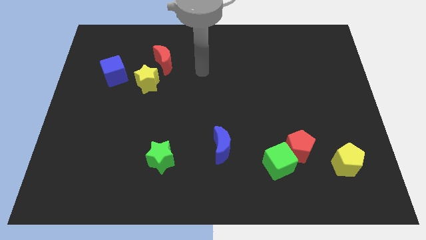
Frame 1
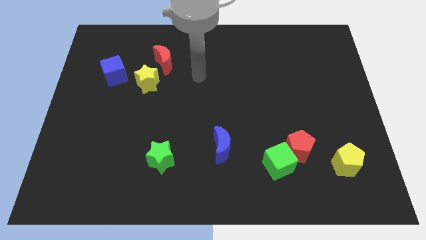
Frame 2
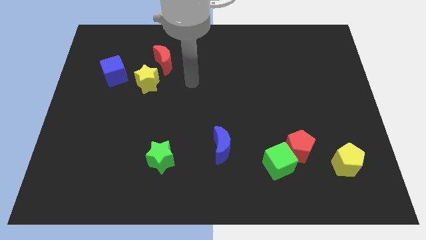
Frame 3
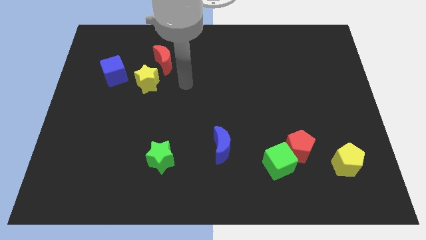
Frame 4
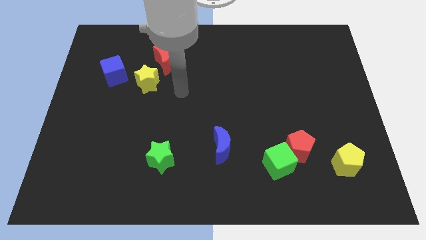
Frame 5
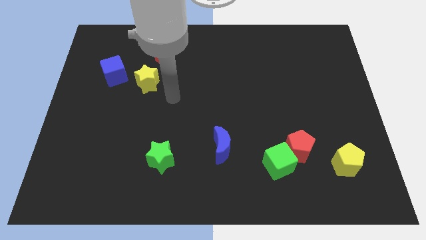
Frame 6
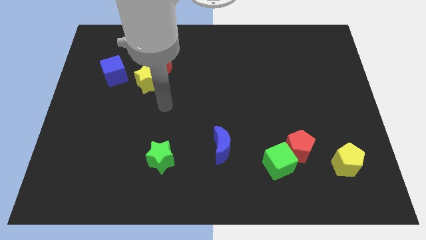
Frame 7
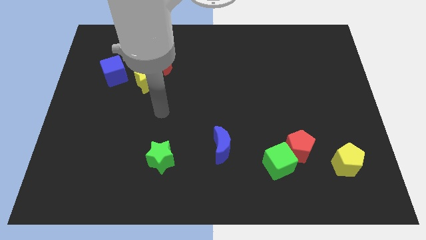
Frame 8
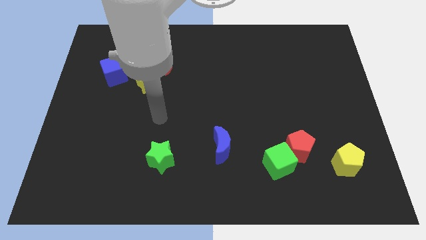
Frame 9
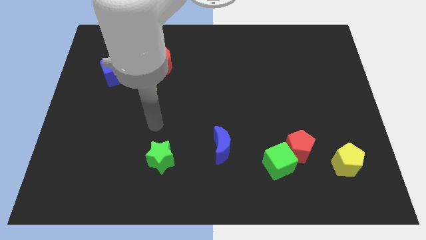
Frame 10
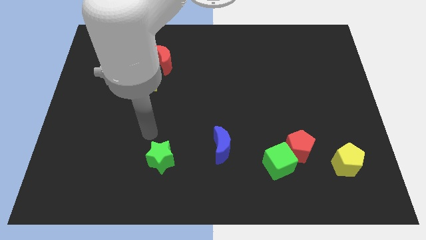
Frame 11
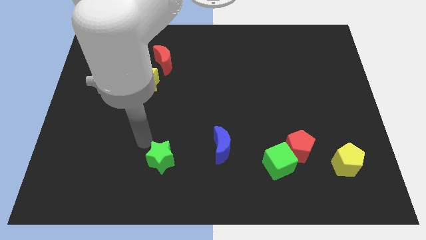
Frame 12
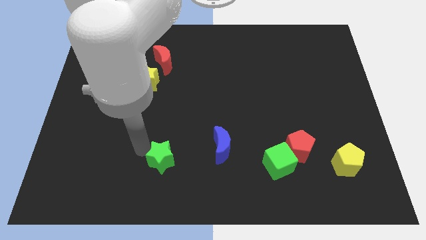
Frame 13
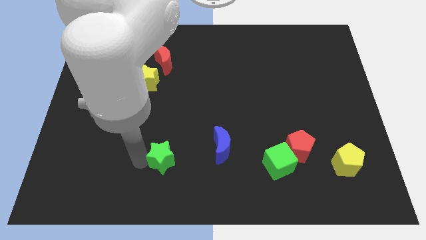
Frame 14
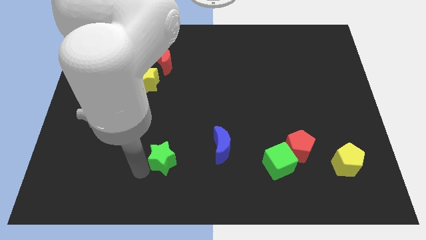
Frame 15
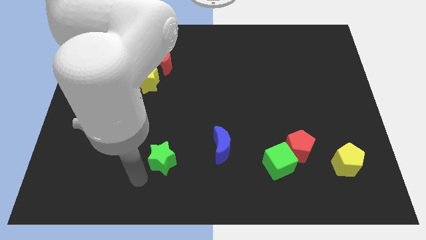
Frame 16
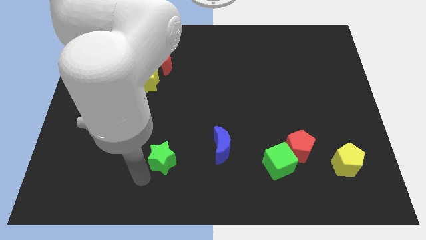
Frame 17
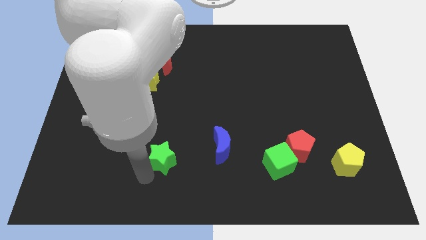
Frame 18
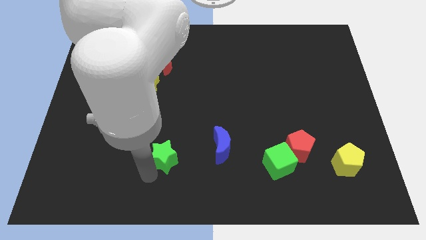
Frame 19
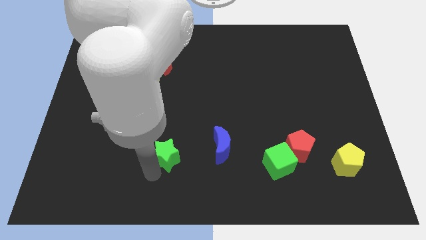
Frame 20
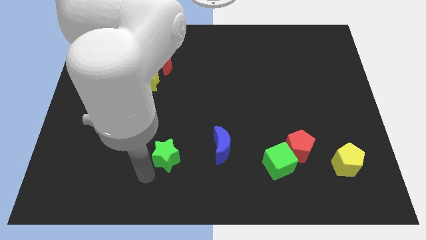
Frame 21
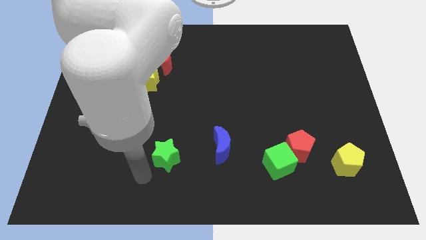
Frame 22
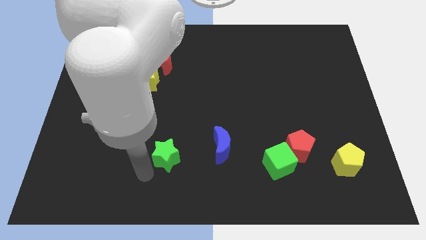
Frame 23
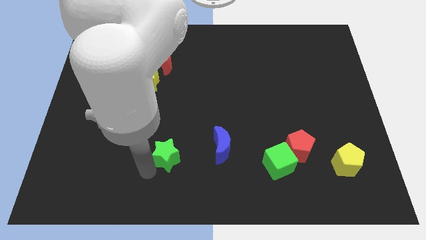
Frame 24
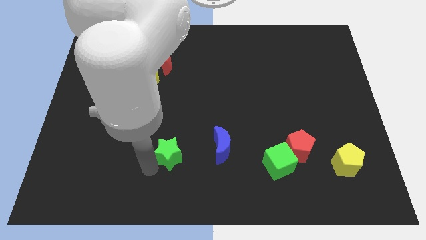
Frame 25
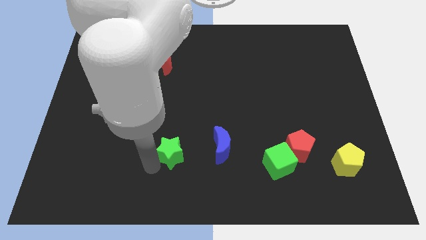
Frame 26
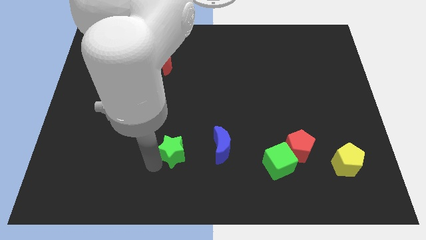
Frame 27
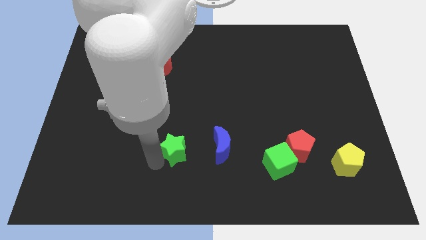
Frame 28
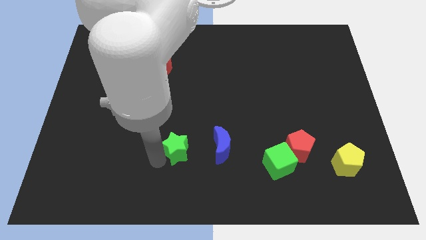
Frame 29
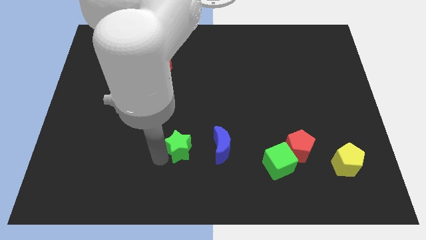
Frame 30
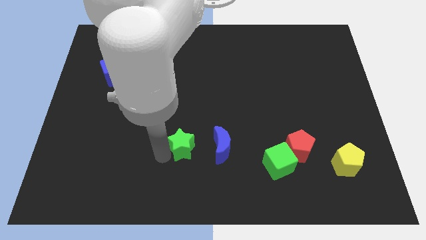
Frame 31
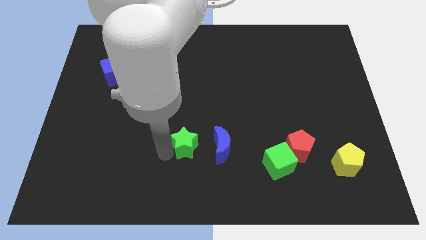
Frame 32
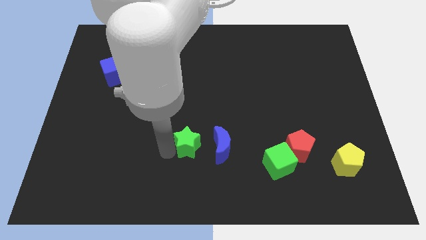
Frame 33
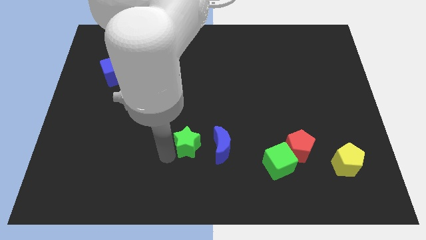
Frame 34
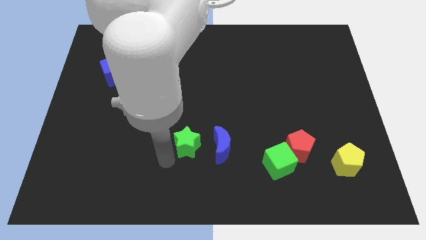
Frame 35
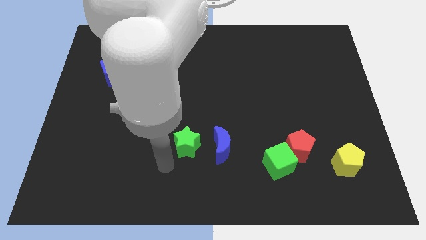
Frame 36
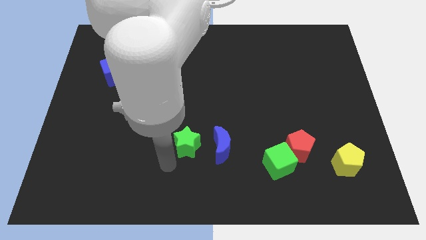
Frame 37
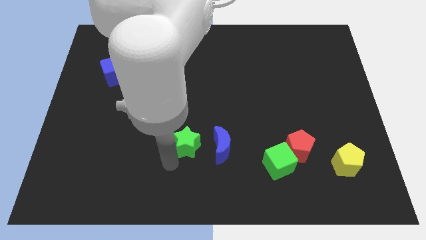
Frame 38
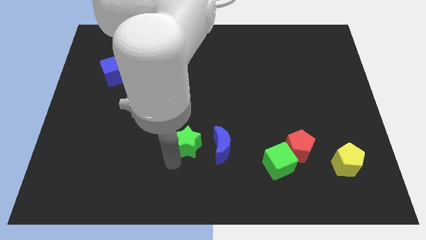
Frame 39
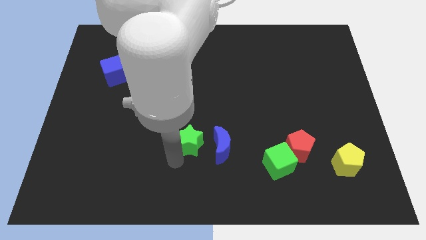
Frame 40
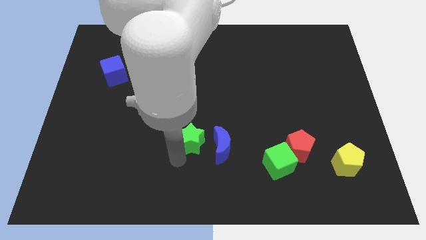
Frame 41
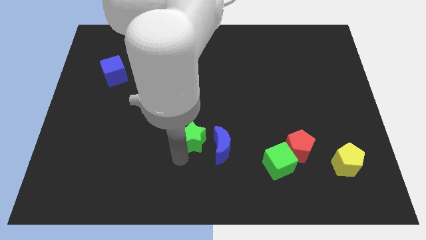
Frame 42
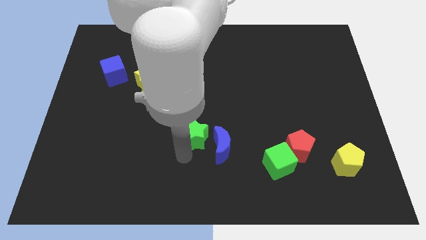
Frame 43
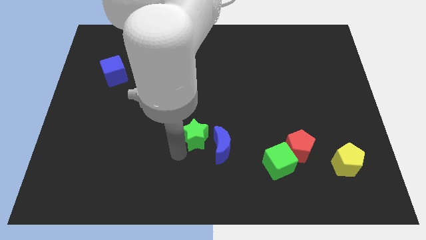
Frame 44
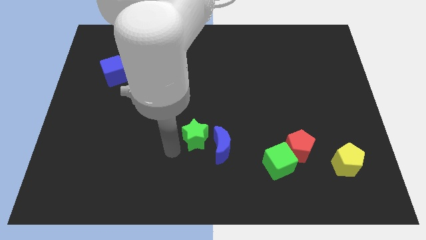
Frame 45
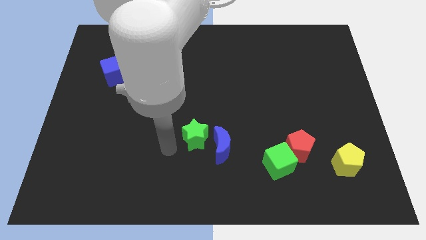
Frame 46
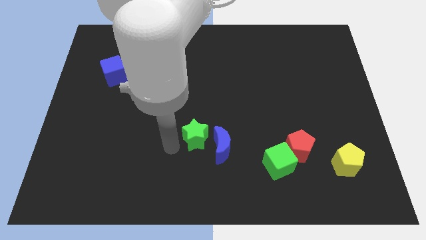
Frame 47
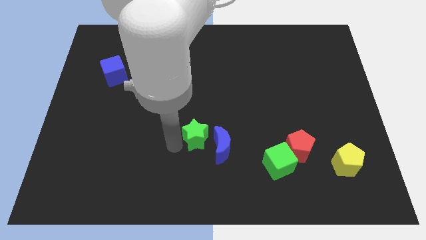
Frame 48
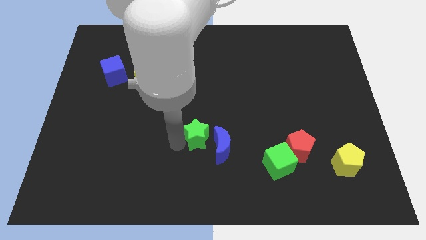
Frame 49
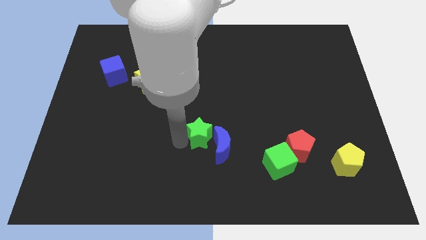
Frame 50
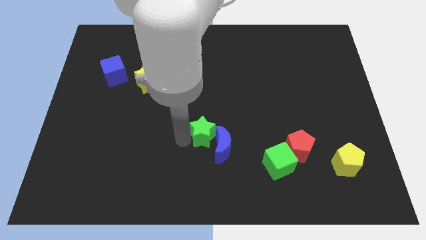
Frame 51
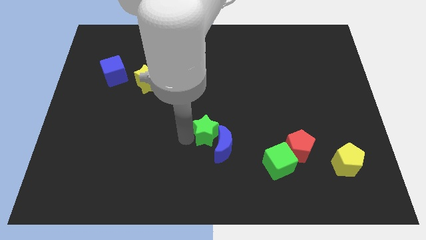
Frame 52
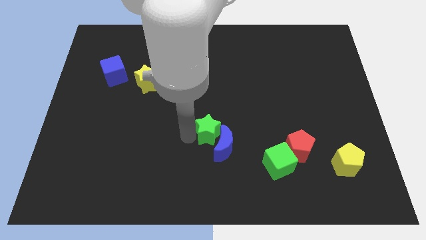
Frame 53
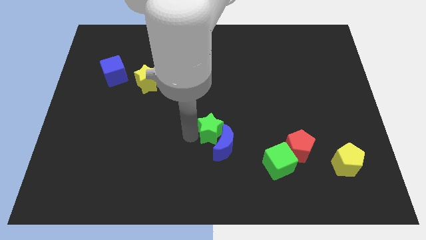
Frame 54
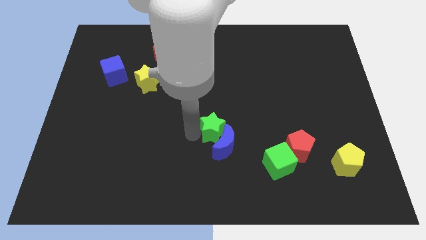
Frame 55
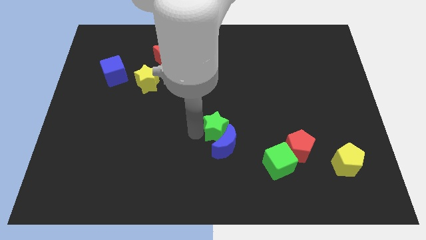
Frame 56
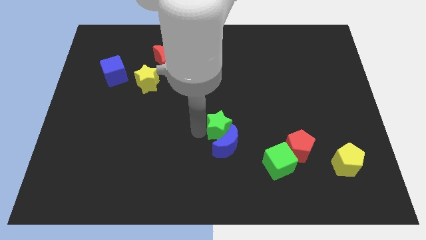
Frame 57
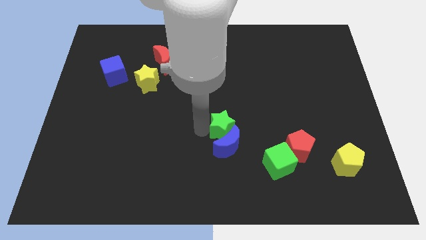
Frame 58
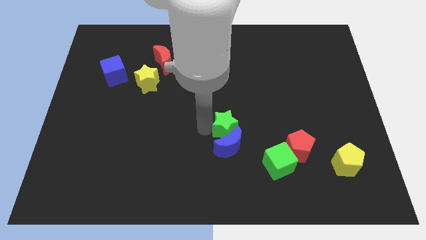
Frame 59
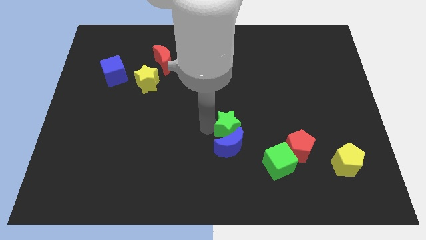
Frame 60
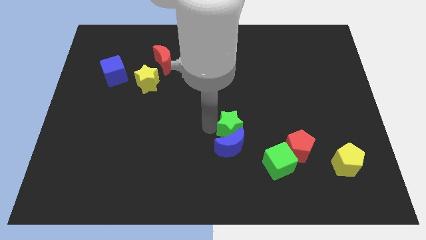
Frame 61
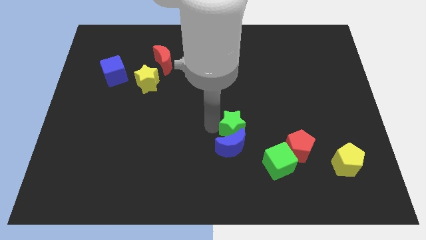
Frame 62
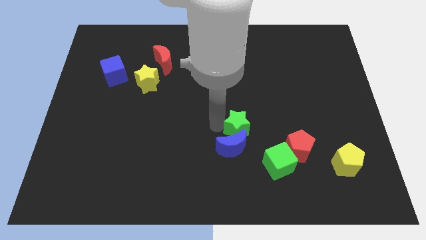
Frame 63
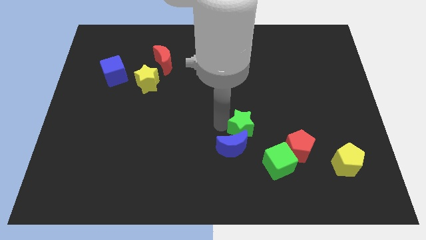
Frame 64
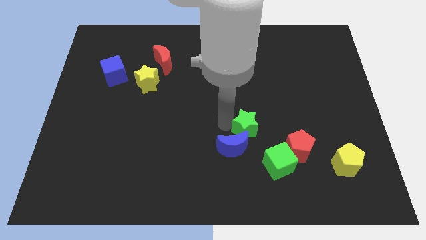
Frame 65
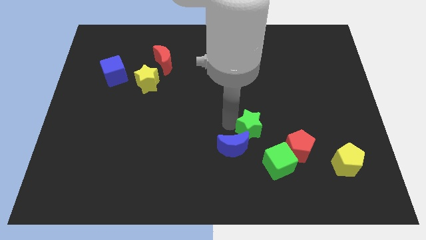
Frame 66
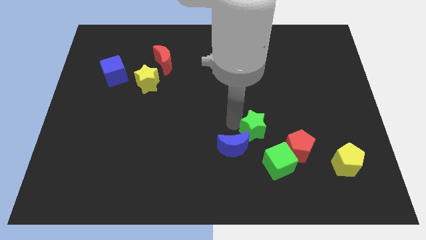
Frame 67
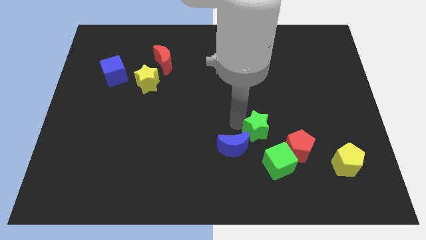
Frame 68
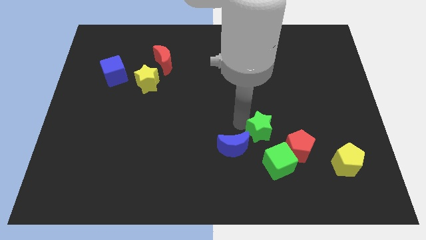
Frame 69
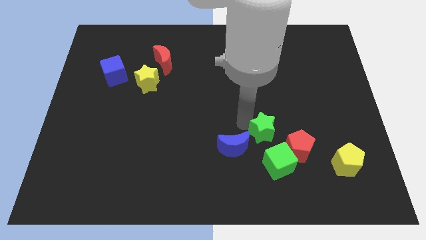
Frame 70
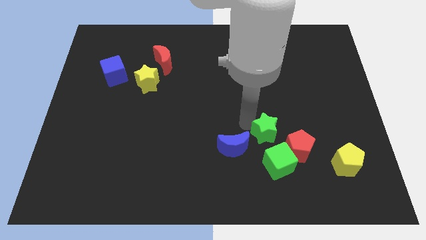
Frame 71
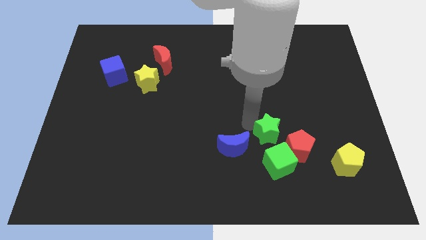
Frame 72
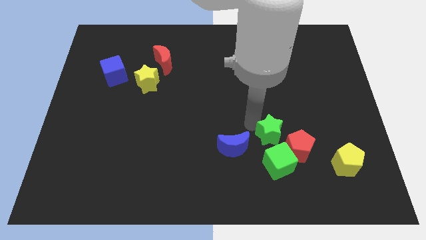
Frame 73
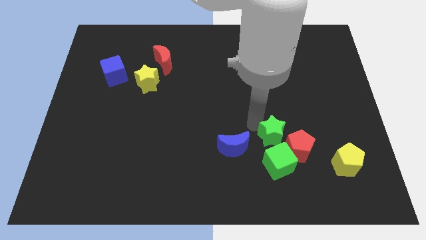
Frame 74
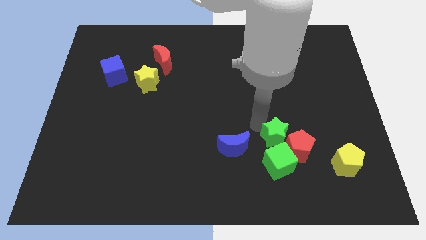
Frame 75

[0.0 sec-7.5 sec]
slide the green star to the red pentagon
